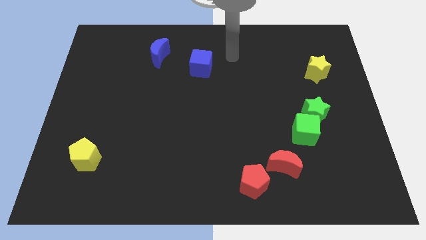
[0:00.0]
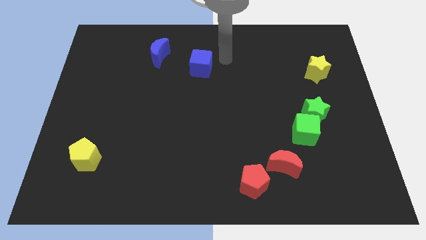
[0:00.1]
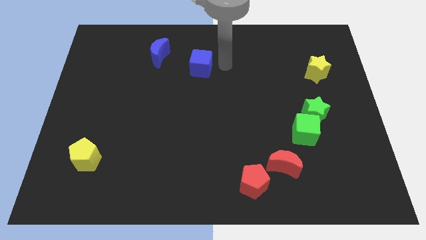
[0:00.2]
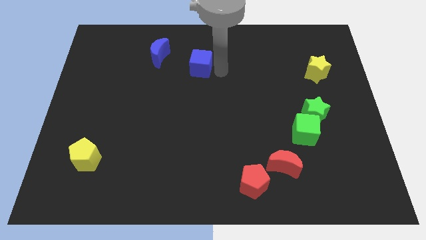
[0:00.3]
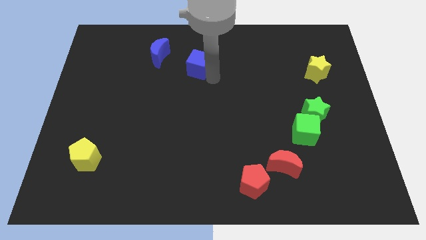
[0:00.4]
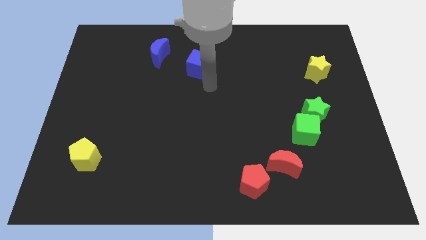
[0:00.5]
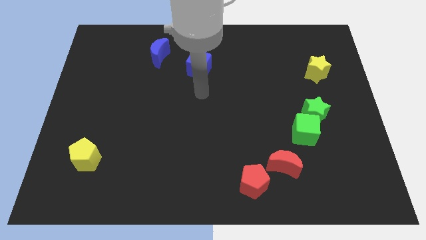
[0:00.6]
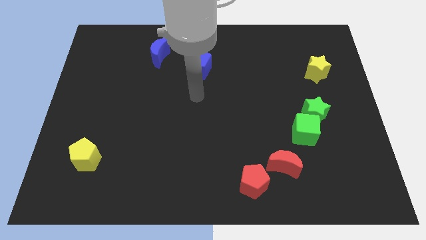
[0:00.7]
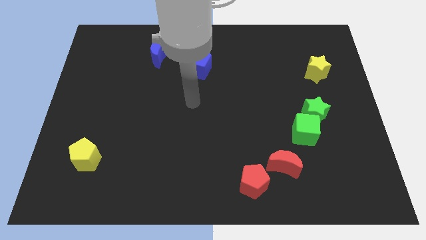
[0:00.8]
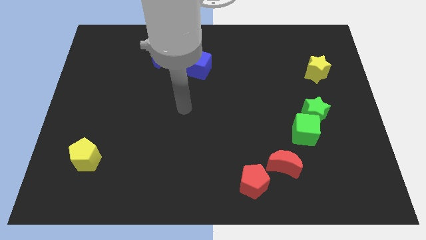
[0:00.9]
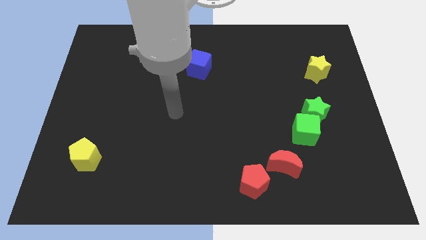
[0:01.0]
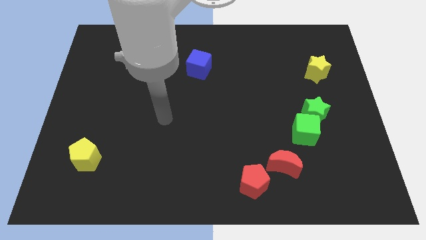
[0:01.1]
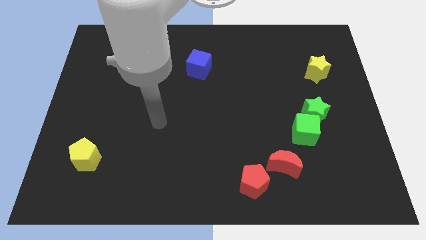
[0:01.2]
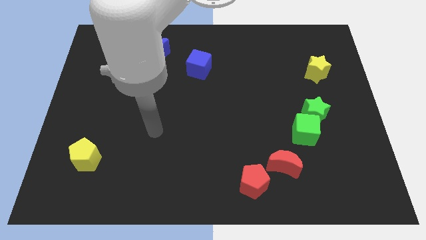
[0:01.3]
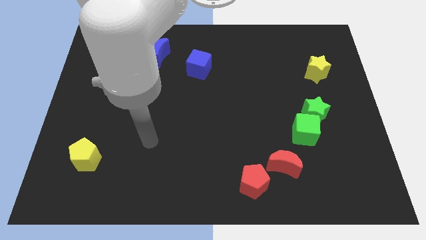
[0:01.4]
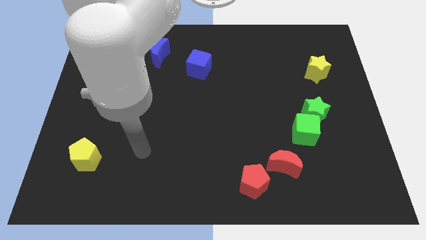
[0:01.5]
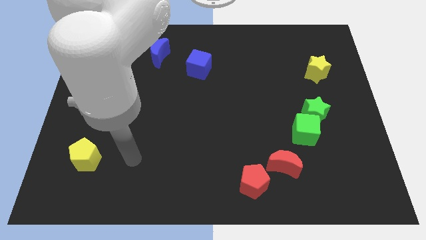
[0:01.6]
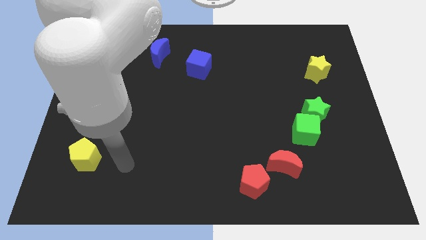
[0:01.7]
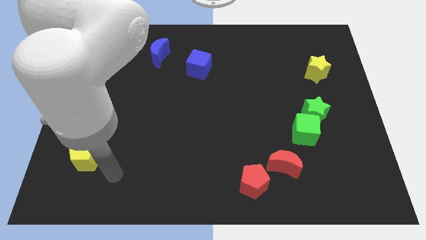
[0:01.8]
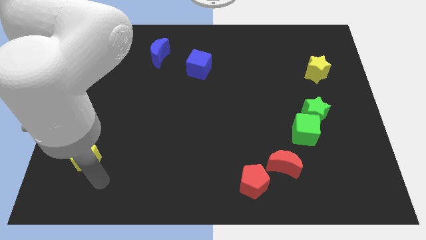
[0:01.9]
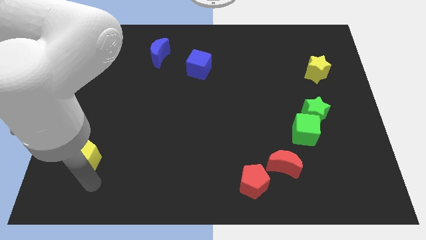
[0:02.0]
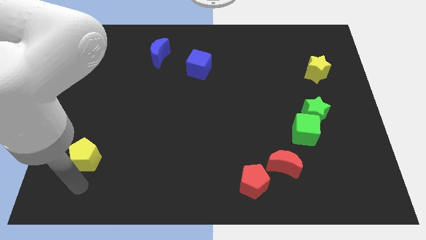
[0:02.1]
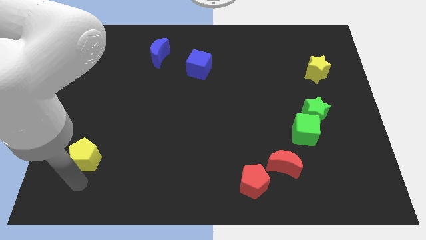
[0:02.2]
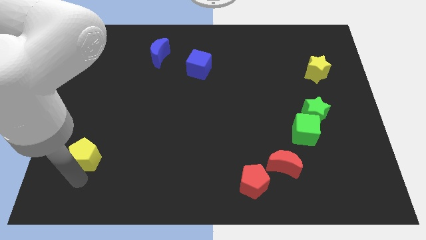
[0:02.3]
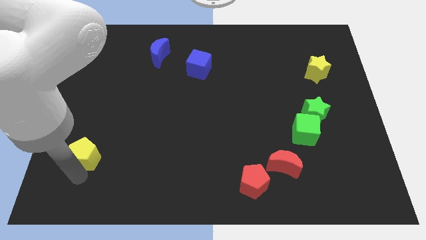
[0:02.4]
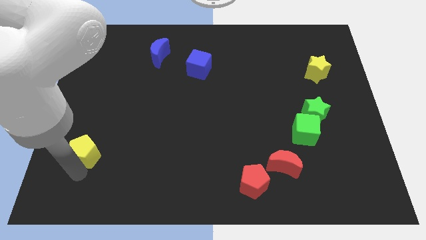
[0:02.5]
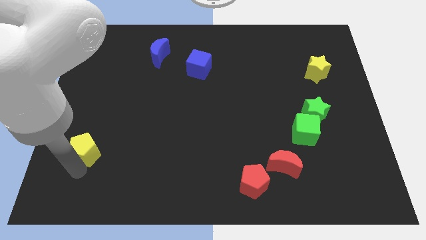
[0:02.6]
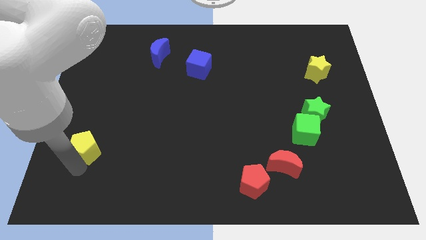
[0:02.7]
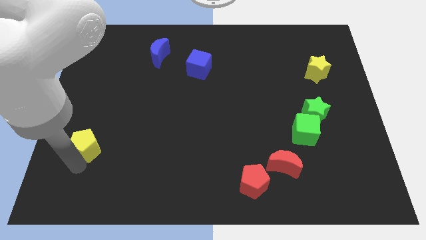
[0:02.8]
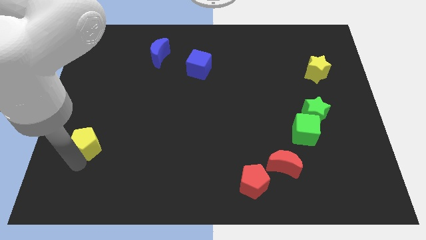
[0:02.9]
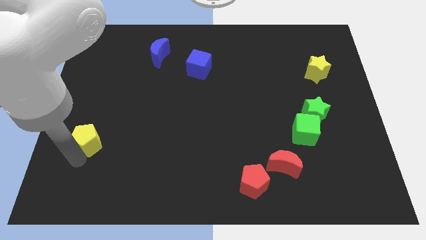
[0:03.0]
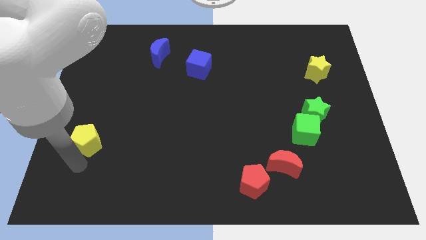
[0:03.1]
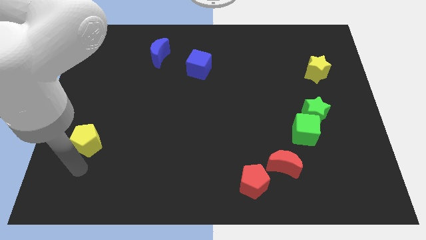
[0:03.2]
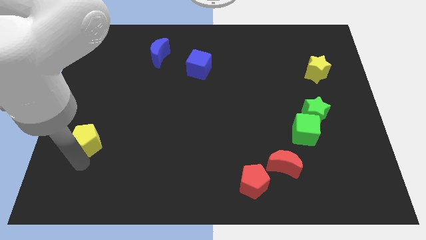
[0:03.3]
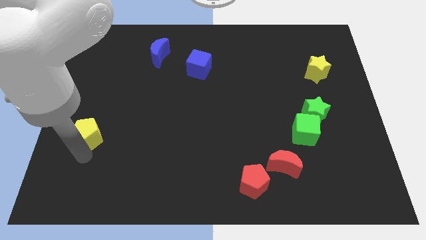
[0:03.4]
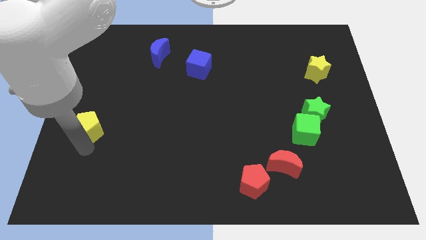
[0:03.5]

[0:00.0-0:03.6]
push the yellow pentagon up somewhat

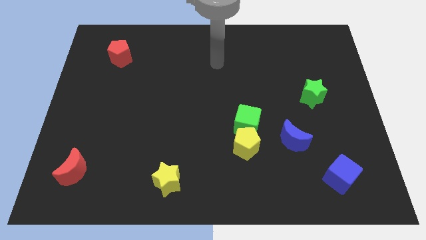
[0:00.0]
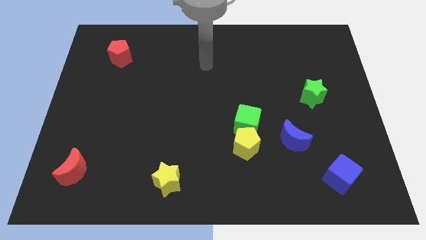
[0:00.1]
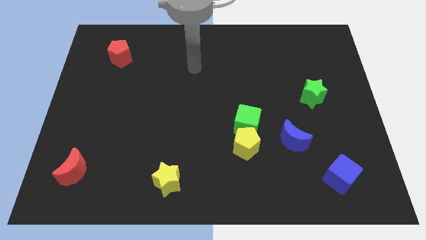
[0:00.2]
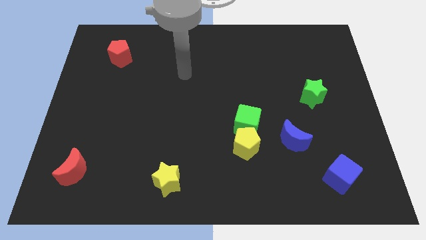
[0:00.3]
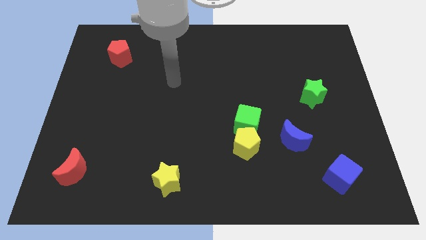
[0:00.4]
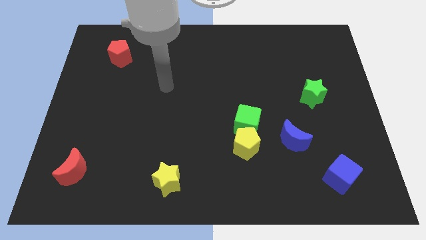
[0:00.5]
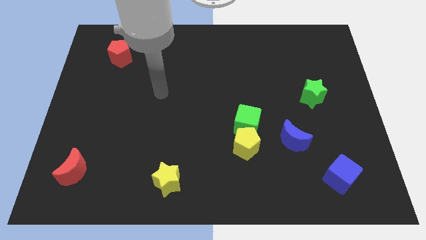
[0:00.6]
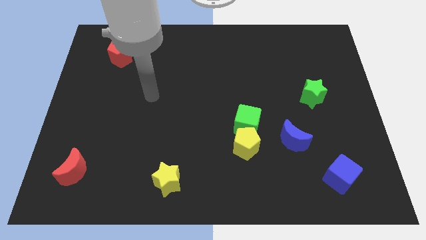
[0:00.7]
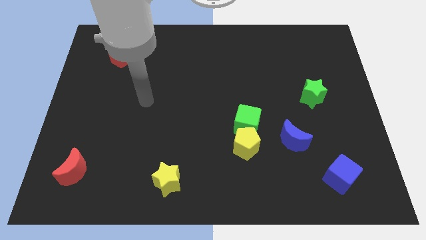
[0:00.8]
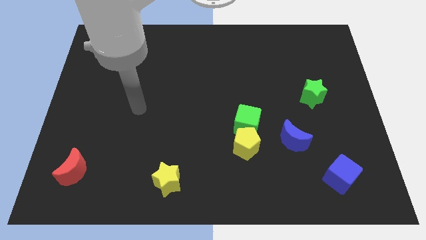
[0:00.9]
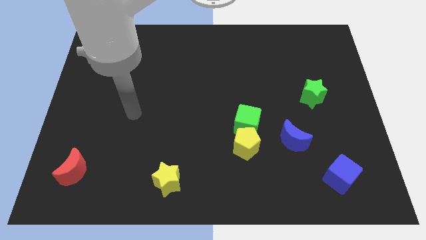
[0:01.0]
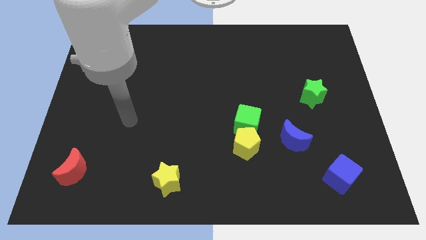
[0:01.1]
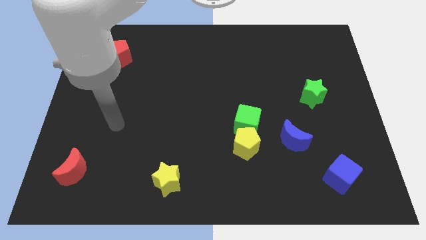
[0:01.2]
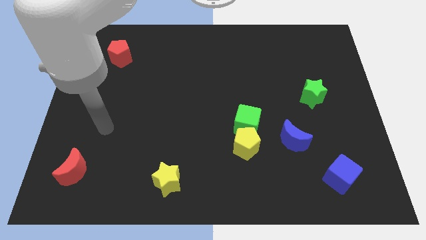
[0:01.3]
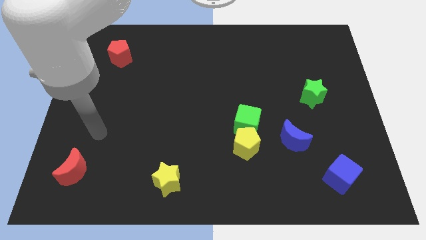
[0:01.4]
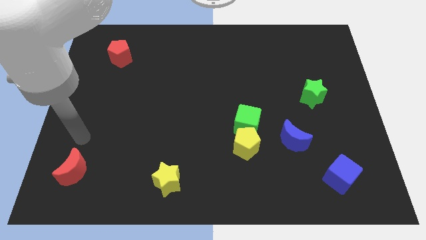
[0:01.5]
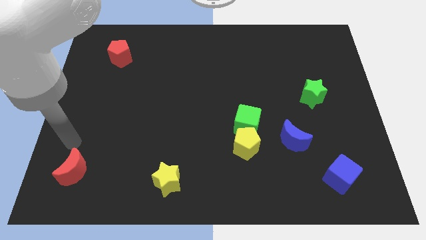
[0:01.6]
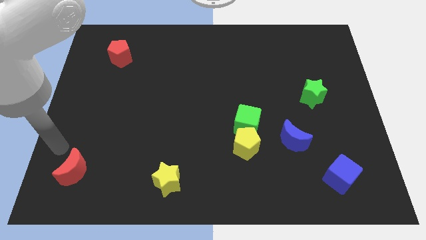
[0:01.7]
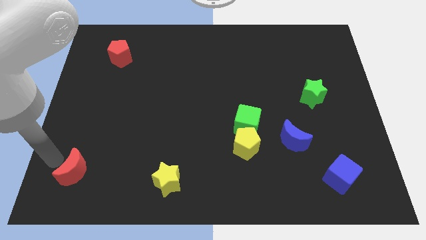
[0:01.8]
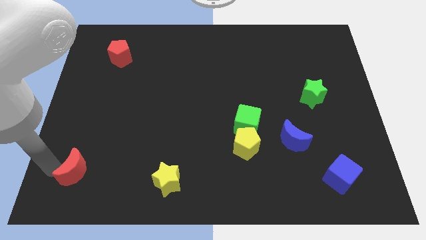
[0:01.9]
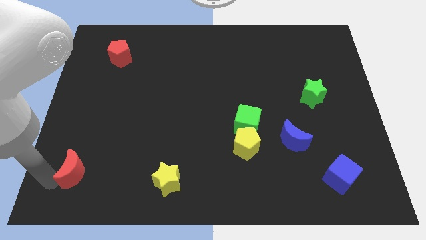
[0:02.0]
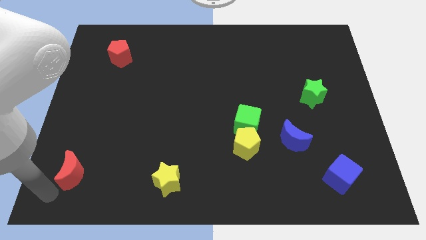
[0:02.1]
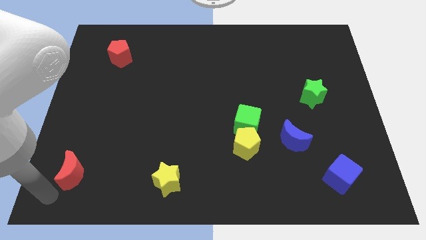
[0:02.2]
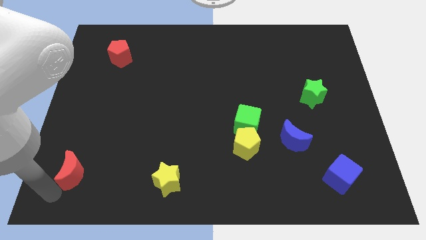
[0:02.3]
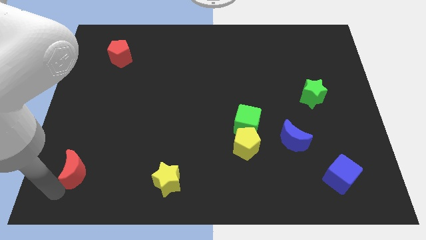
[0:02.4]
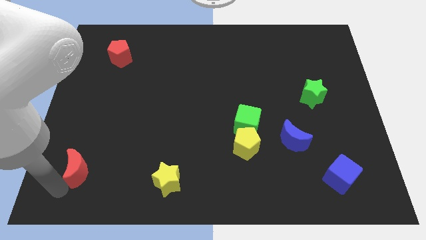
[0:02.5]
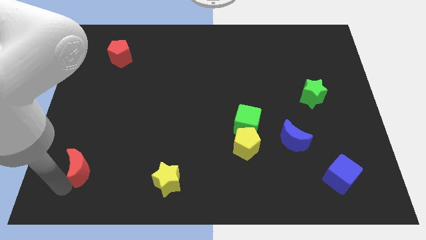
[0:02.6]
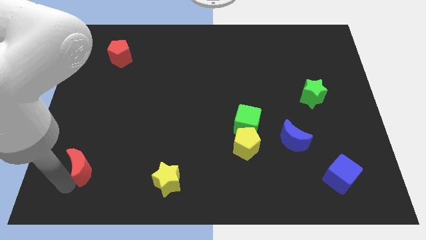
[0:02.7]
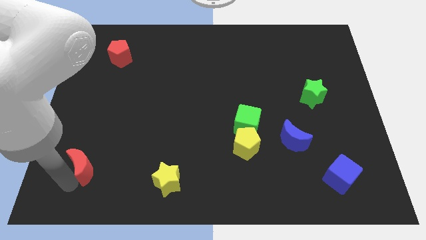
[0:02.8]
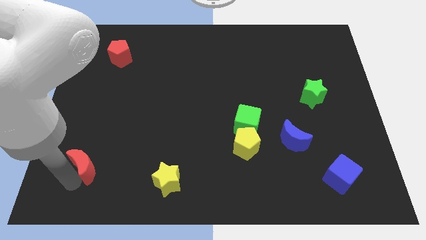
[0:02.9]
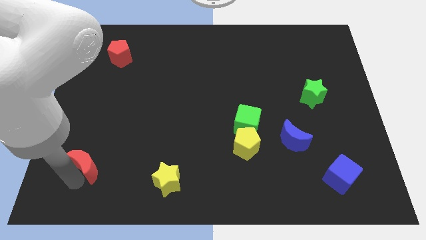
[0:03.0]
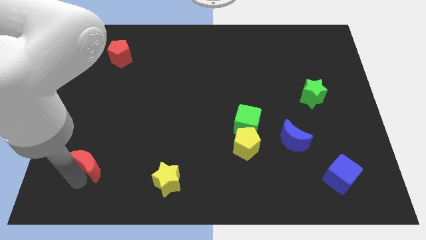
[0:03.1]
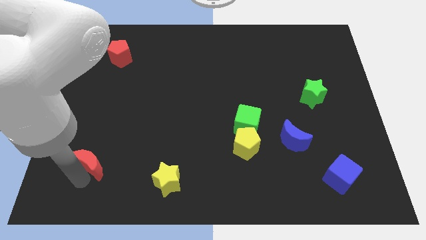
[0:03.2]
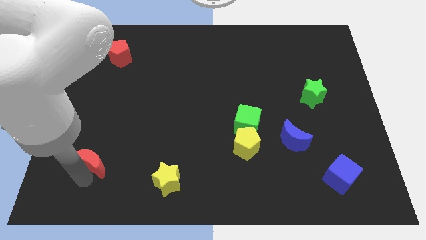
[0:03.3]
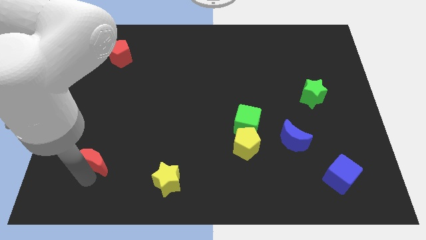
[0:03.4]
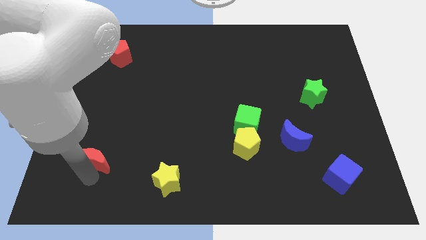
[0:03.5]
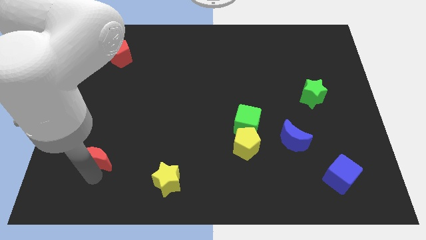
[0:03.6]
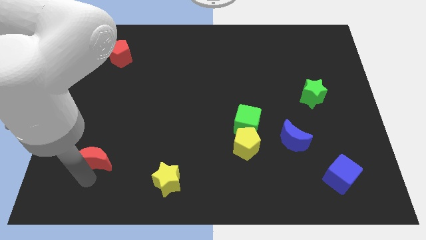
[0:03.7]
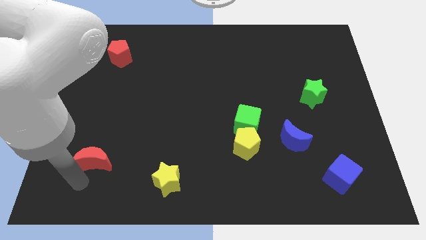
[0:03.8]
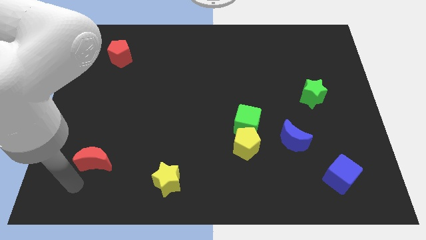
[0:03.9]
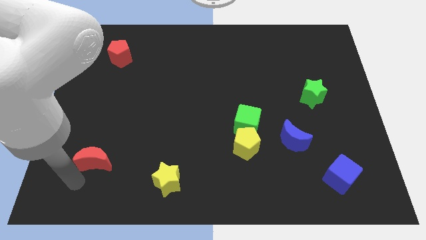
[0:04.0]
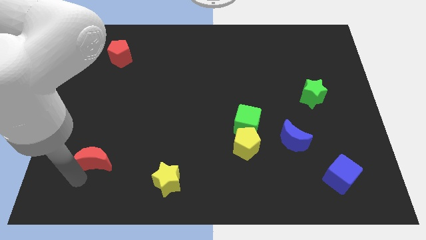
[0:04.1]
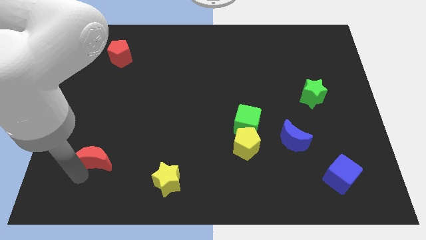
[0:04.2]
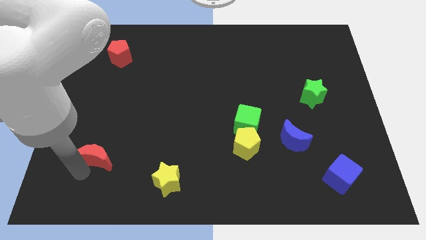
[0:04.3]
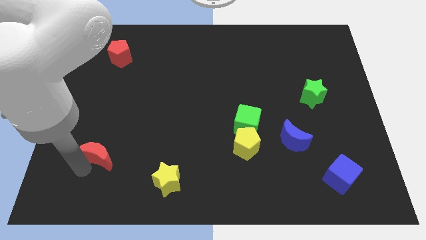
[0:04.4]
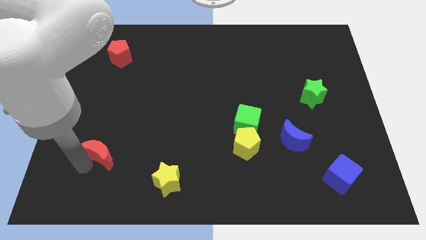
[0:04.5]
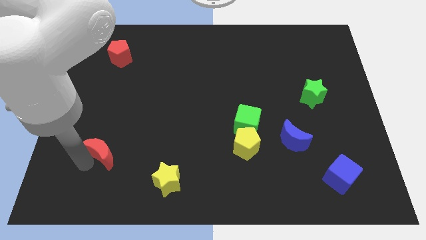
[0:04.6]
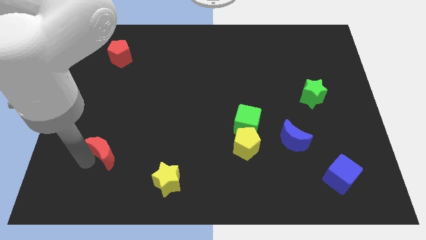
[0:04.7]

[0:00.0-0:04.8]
slide the red moon diagonally up and to the right a bit
